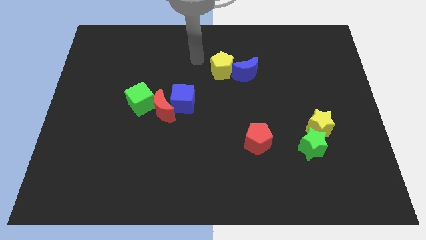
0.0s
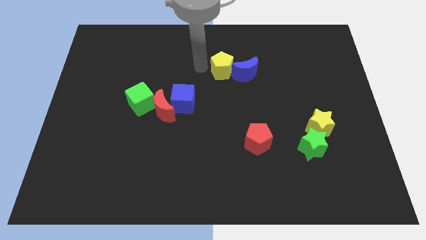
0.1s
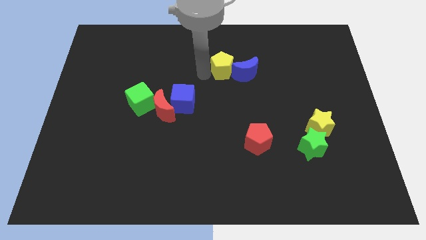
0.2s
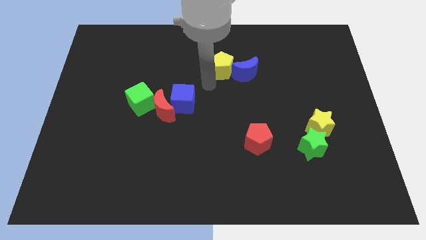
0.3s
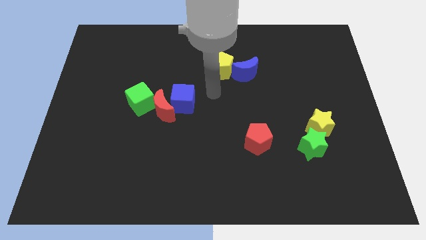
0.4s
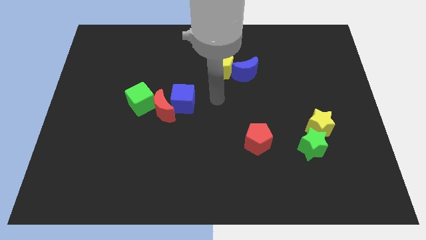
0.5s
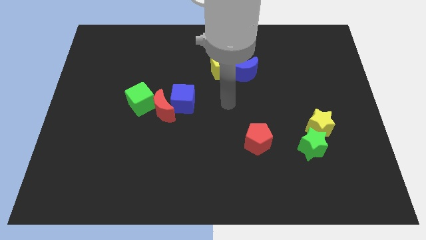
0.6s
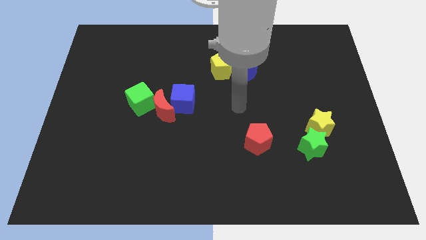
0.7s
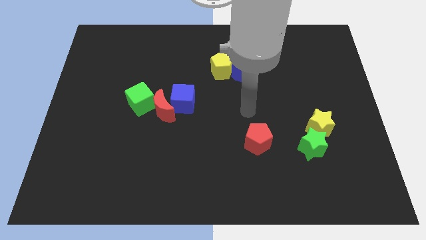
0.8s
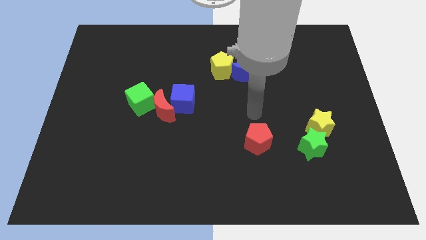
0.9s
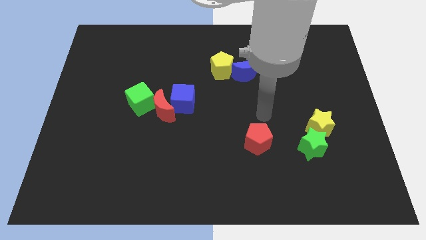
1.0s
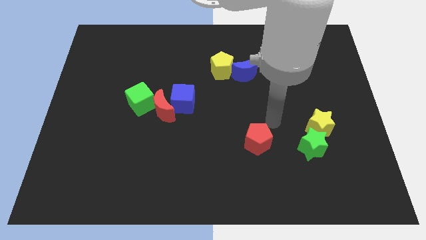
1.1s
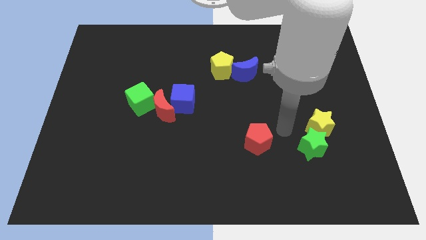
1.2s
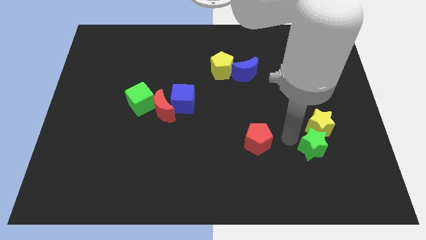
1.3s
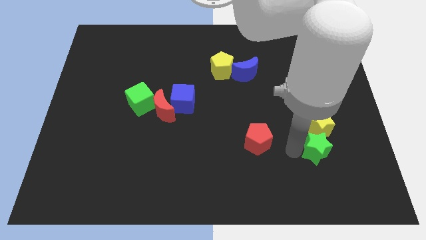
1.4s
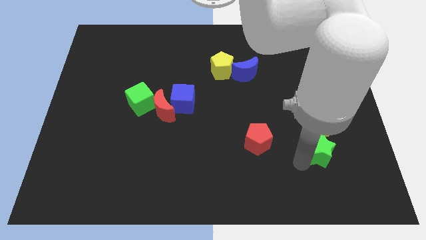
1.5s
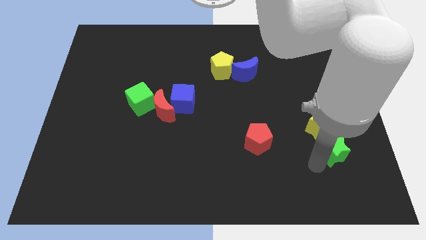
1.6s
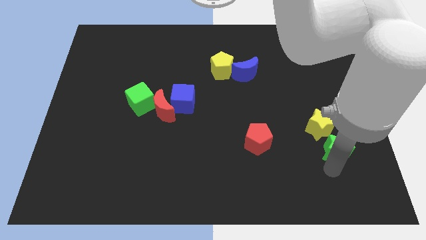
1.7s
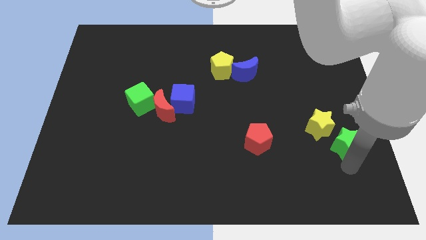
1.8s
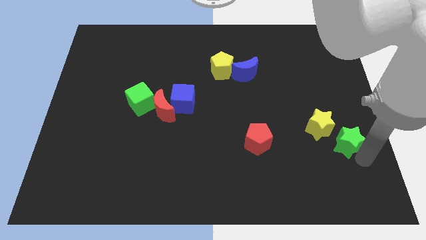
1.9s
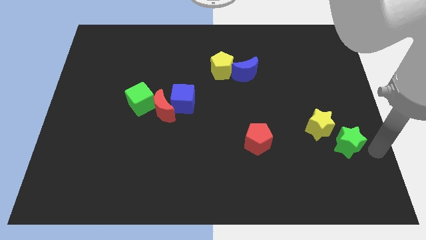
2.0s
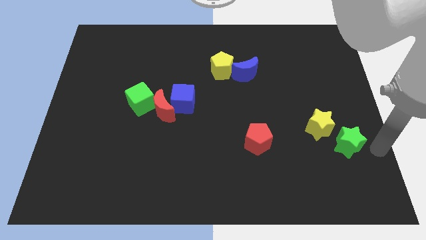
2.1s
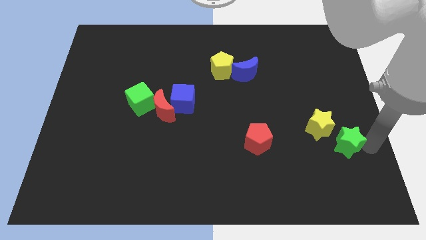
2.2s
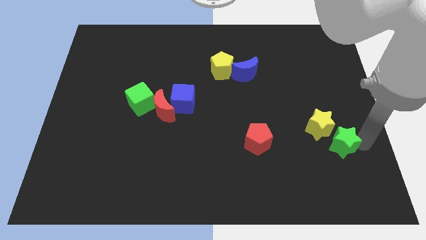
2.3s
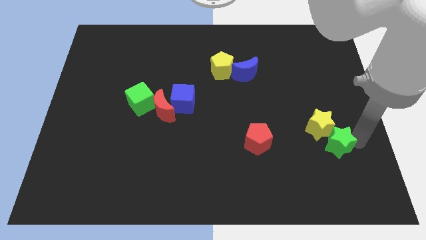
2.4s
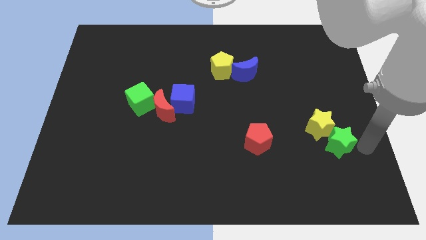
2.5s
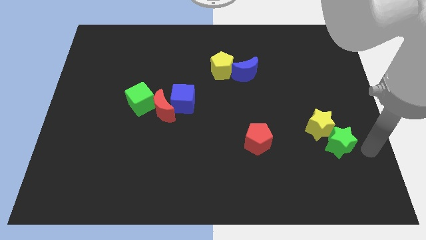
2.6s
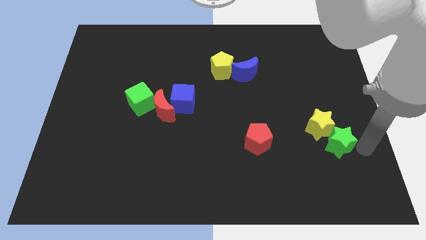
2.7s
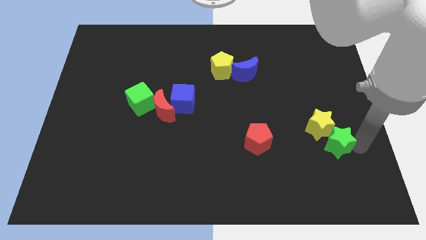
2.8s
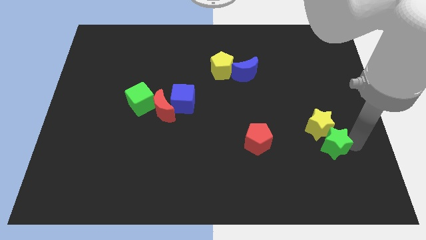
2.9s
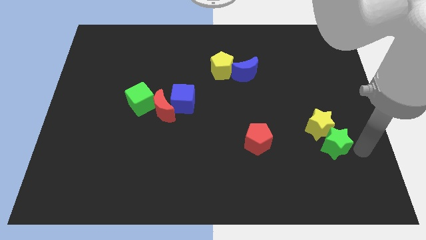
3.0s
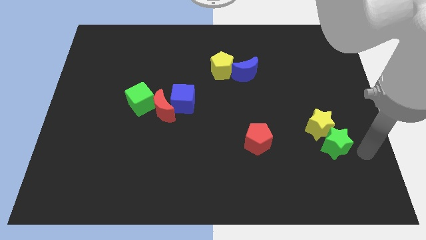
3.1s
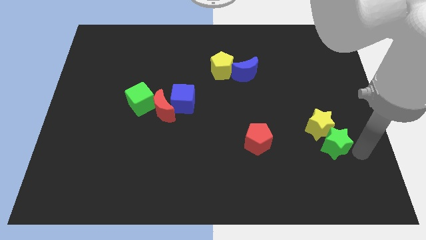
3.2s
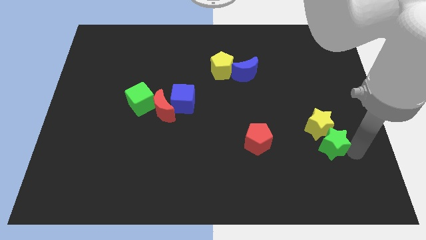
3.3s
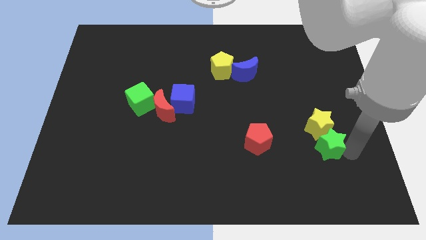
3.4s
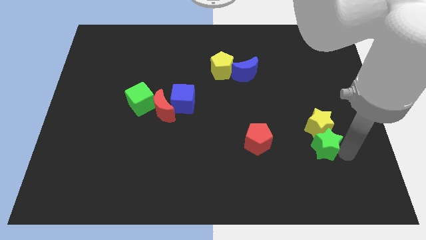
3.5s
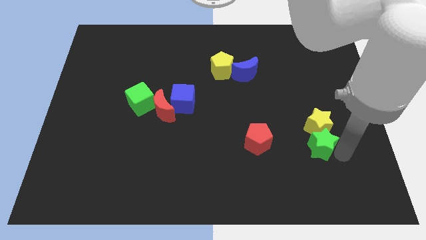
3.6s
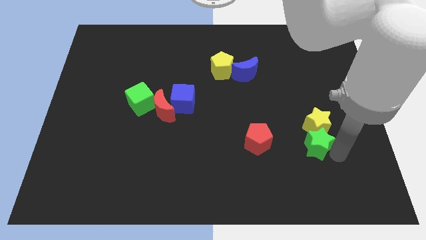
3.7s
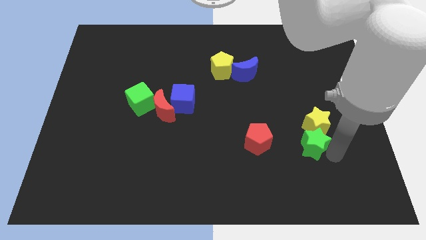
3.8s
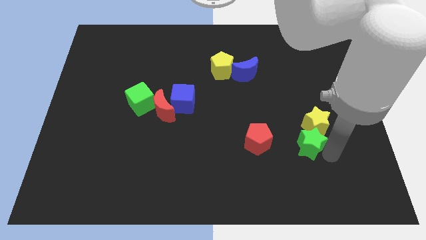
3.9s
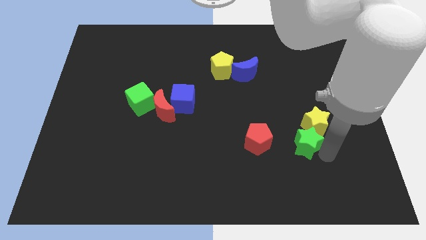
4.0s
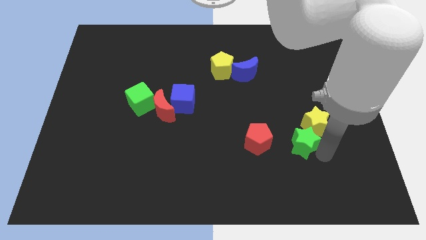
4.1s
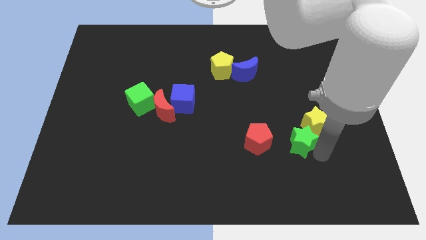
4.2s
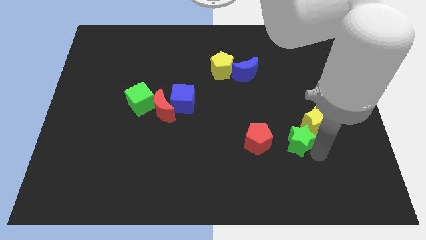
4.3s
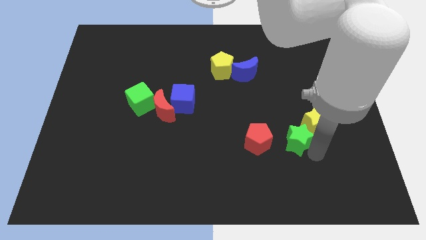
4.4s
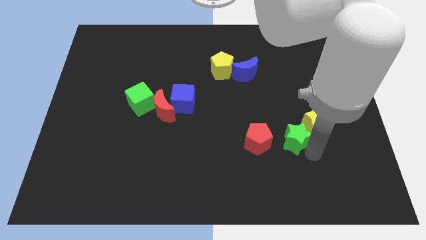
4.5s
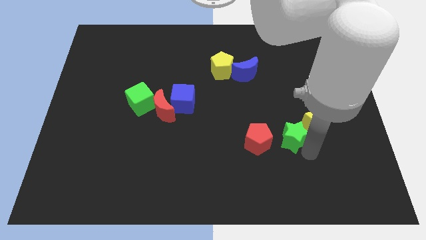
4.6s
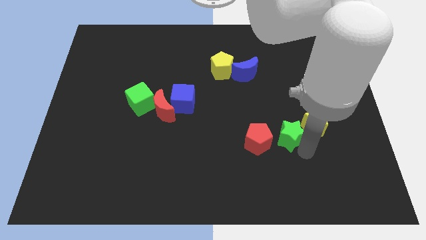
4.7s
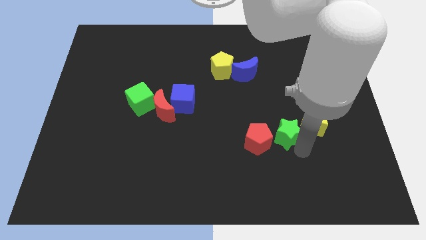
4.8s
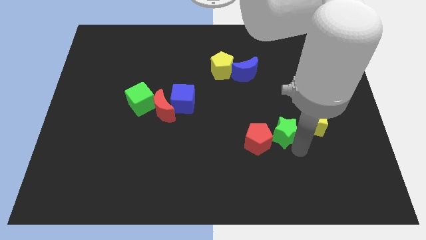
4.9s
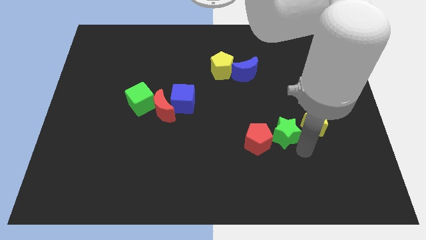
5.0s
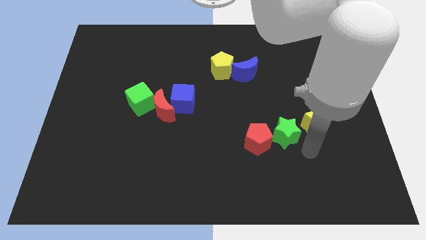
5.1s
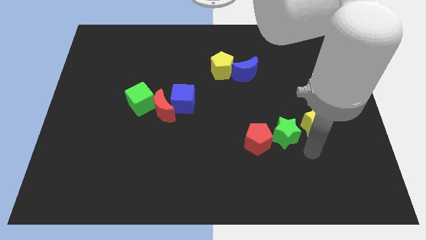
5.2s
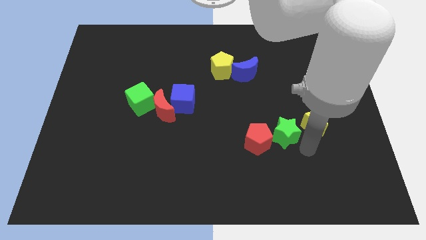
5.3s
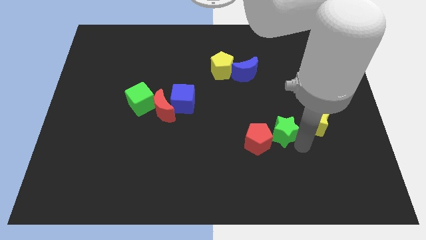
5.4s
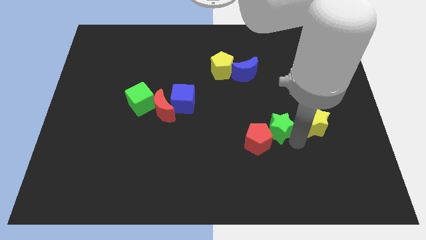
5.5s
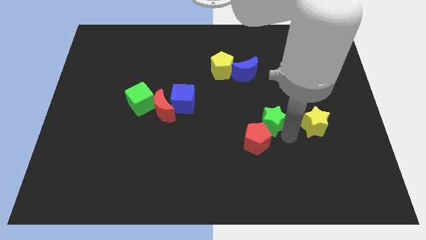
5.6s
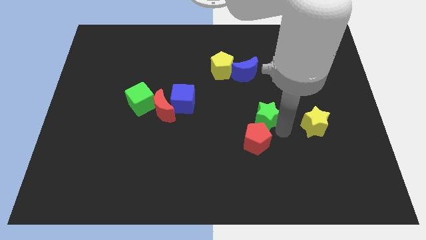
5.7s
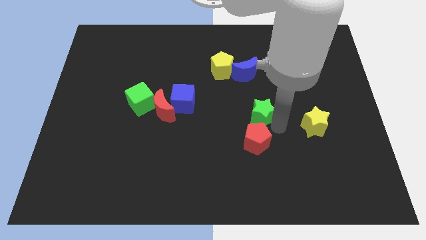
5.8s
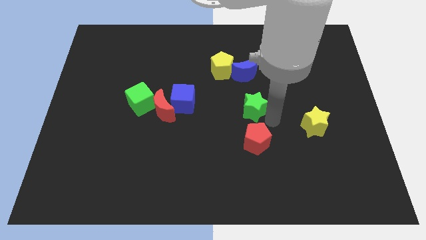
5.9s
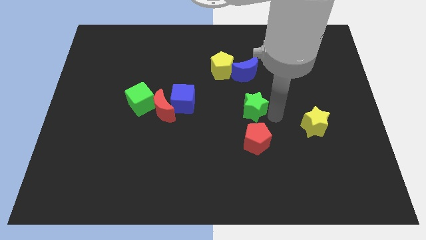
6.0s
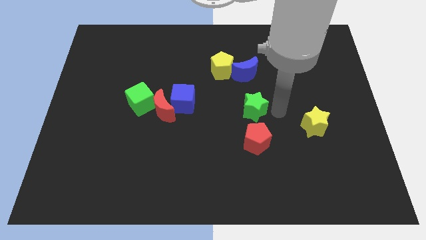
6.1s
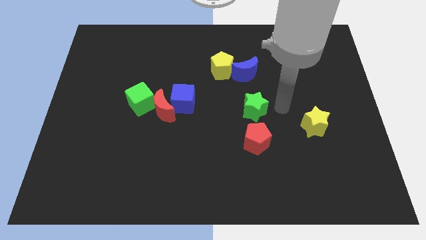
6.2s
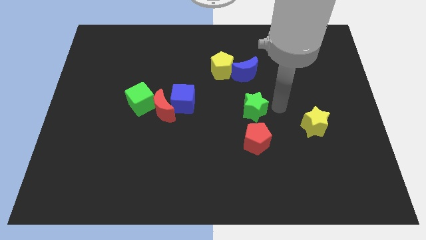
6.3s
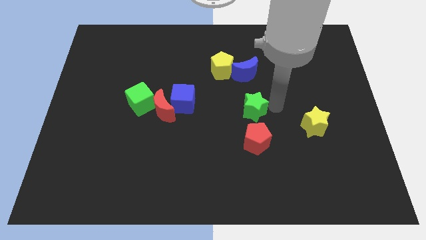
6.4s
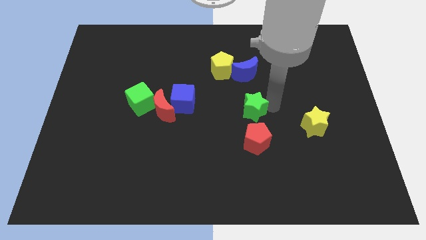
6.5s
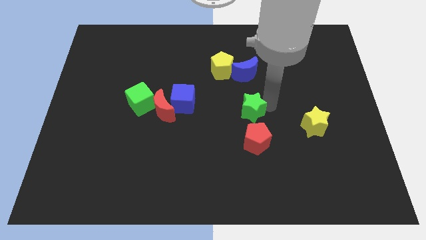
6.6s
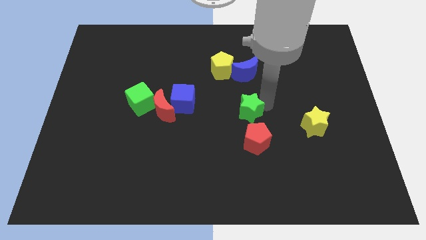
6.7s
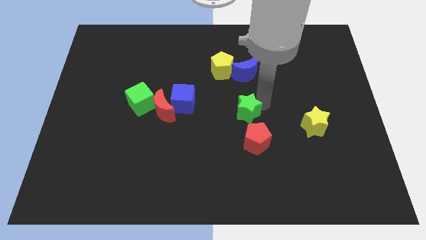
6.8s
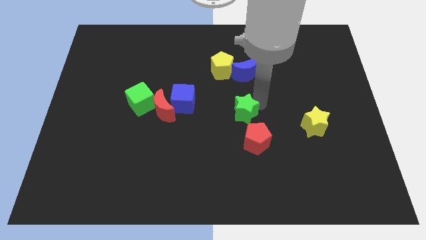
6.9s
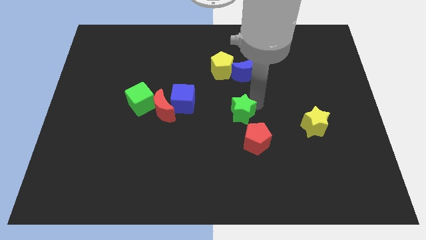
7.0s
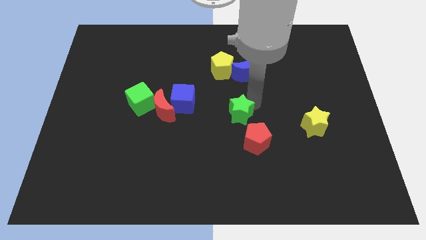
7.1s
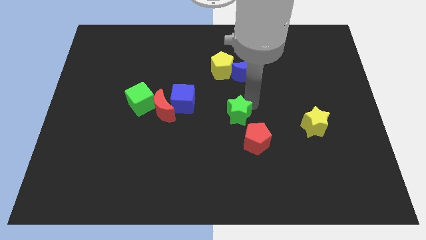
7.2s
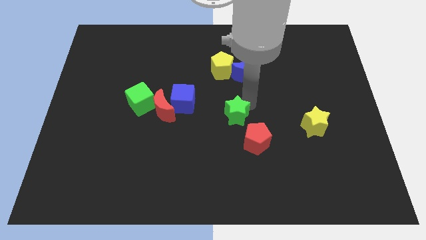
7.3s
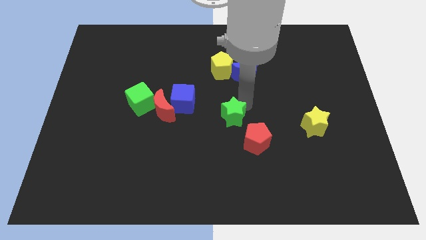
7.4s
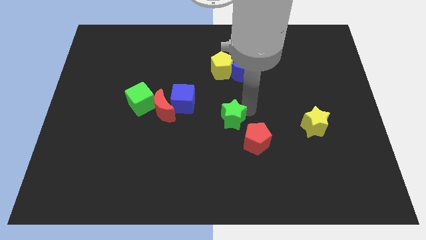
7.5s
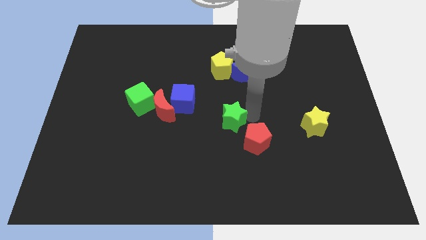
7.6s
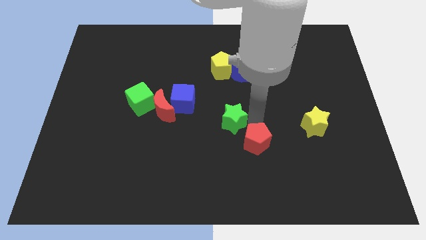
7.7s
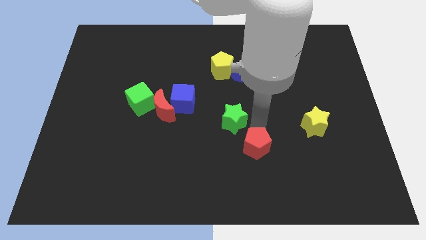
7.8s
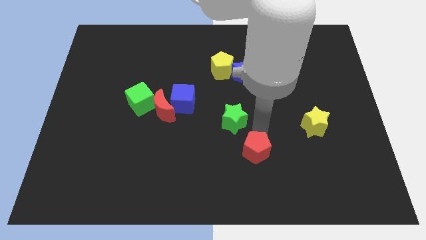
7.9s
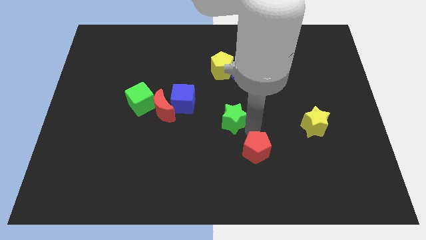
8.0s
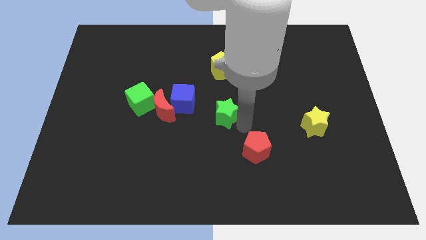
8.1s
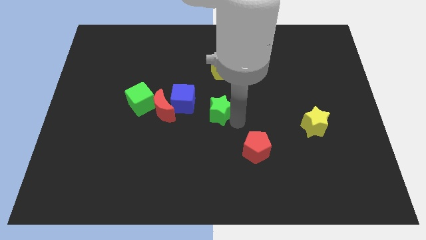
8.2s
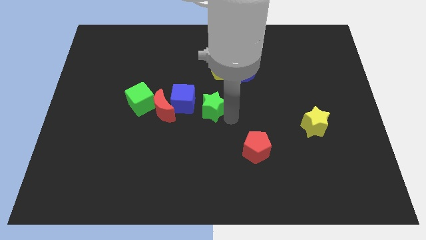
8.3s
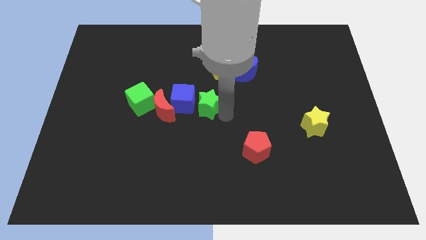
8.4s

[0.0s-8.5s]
slide the green star close to the blue cube
